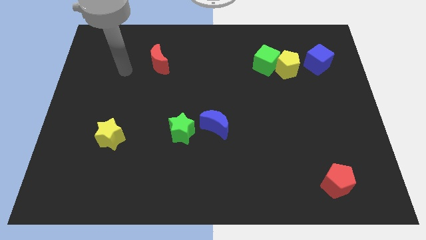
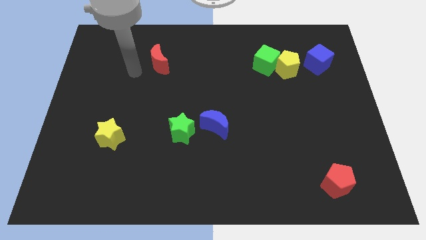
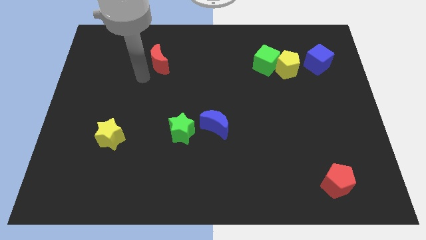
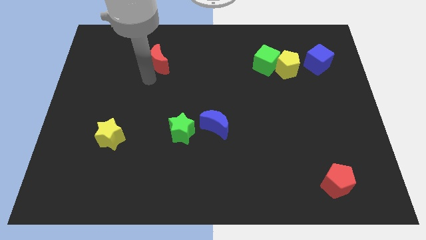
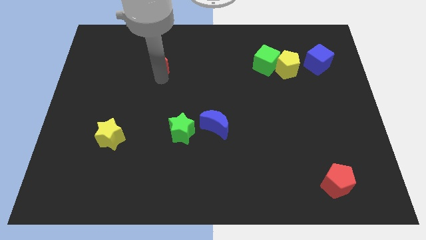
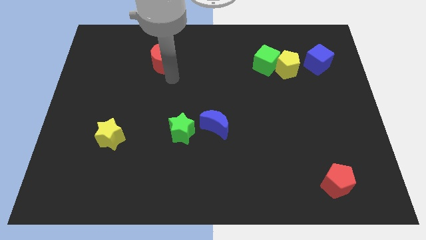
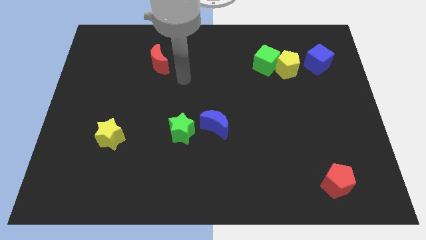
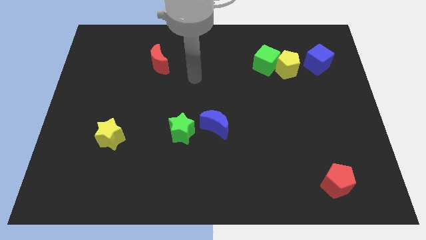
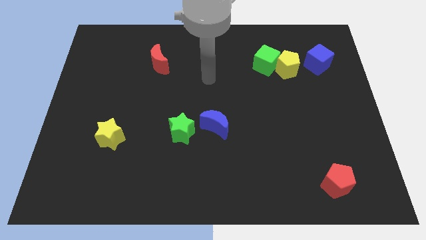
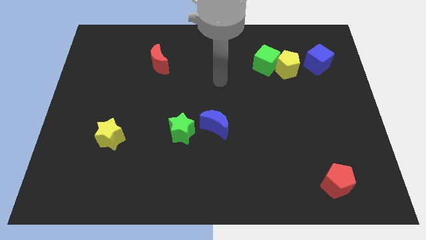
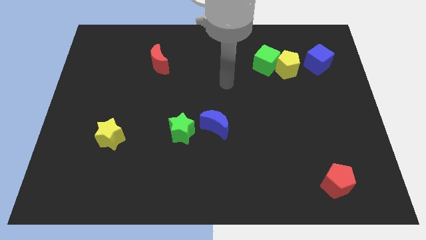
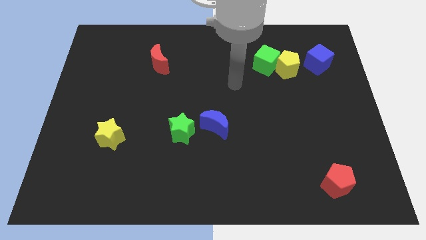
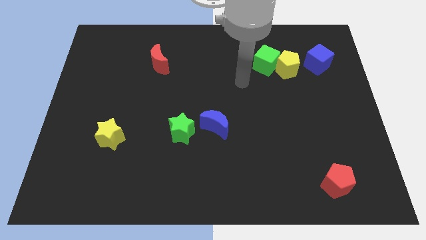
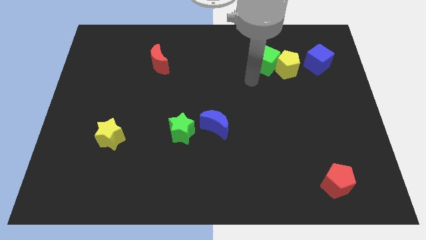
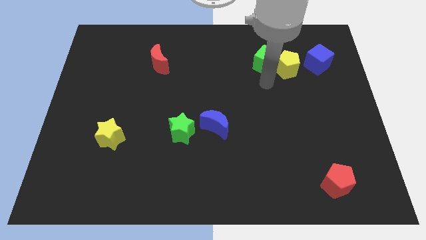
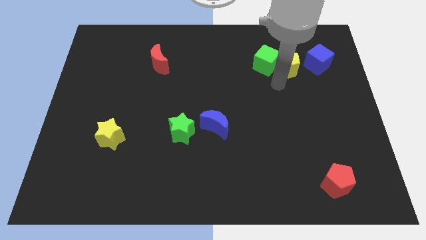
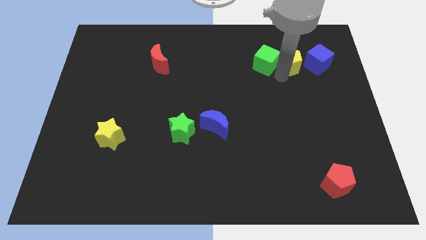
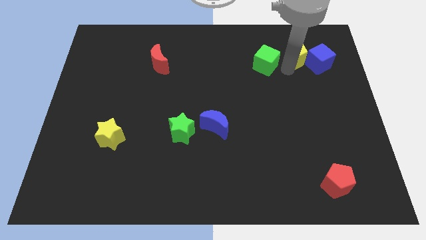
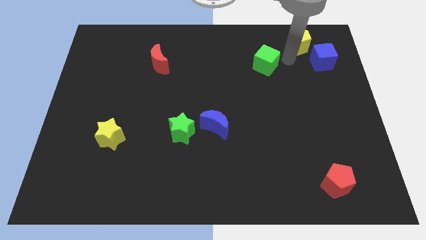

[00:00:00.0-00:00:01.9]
move the green cube away from the yellow pentagon

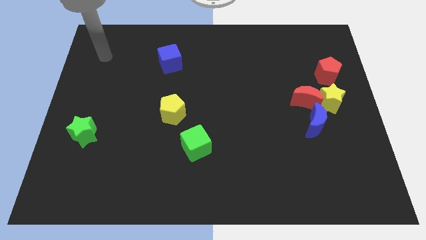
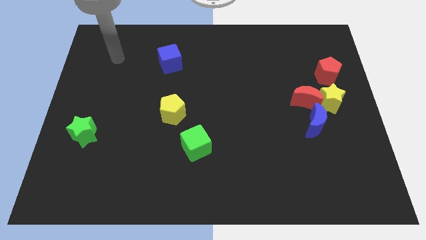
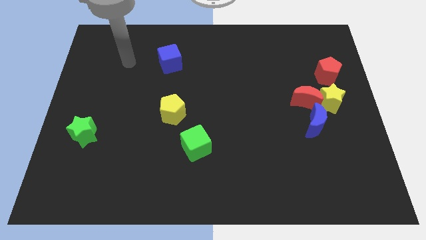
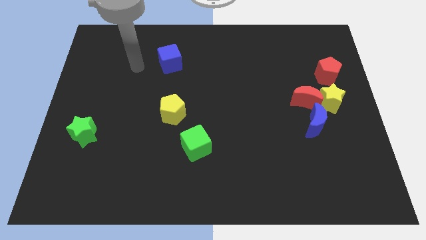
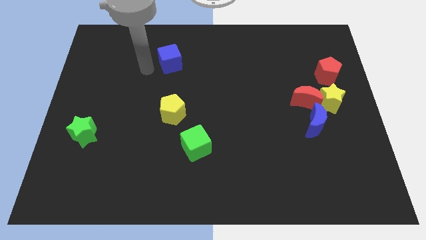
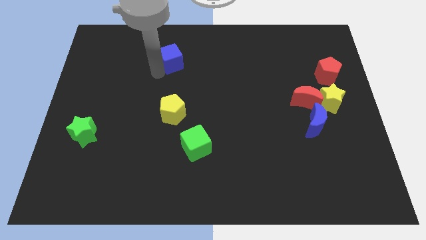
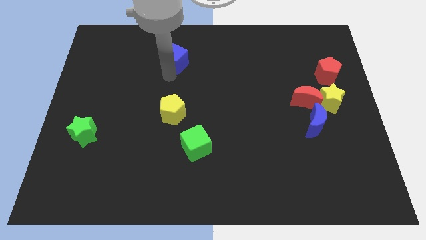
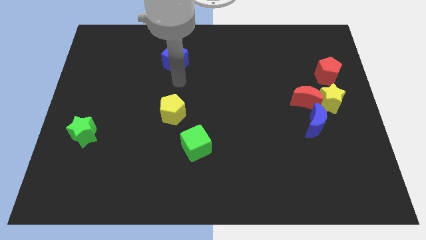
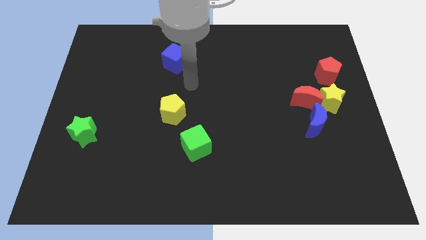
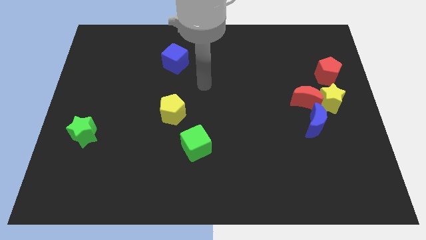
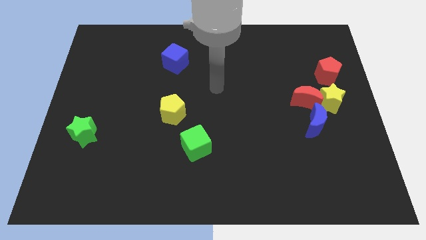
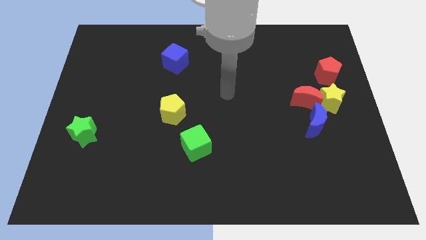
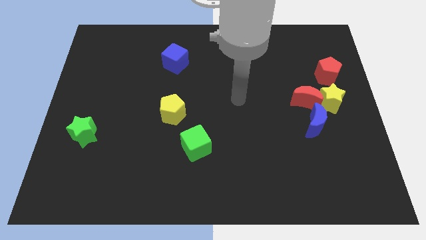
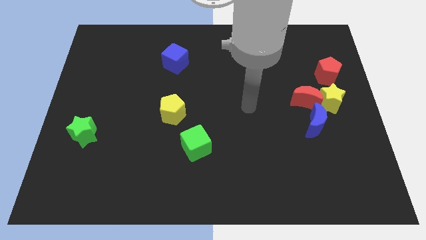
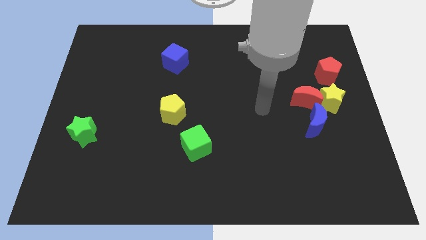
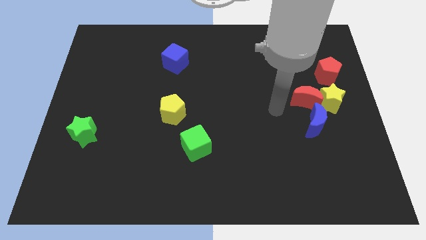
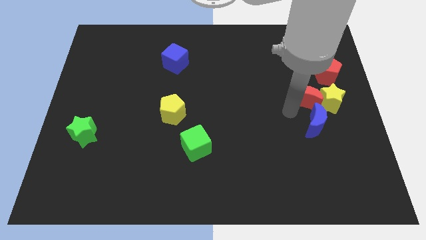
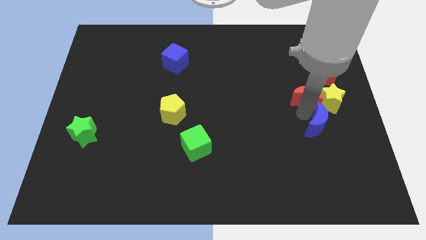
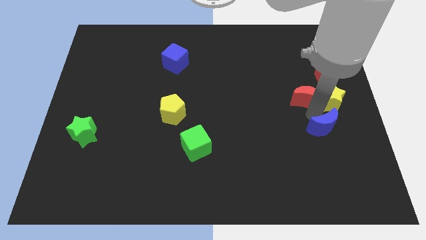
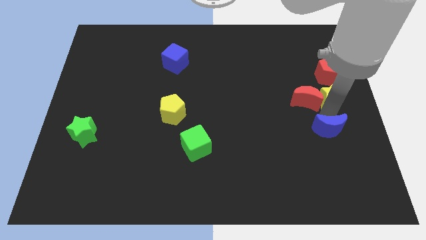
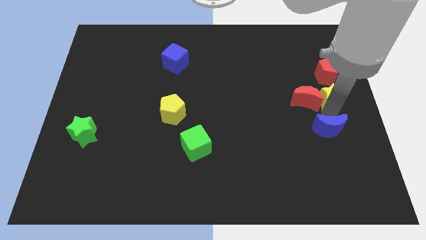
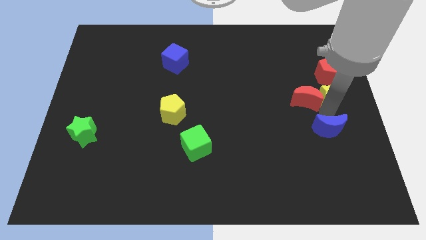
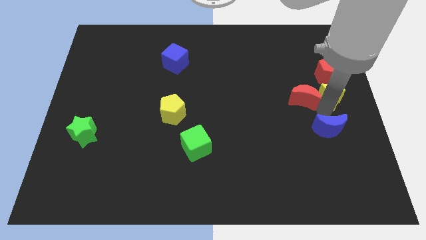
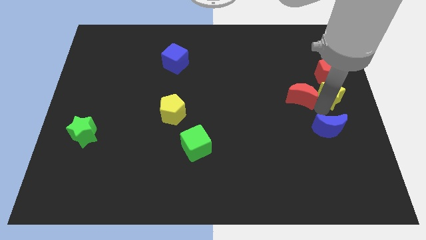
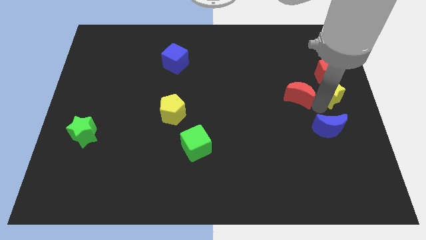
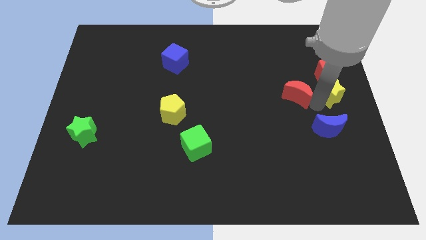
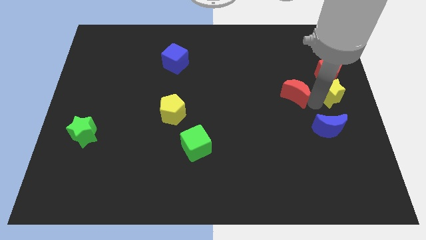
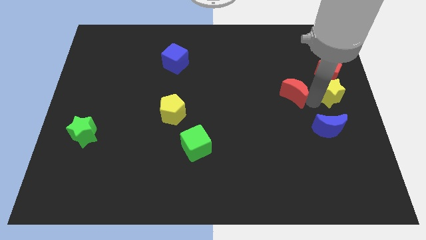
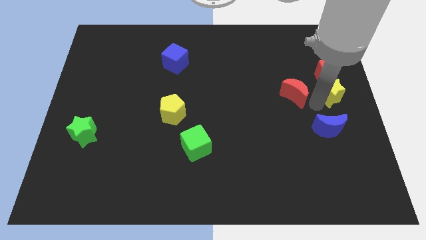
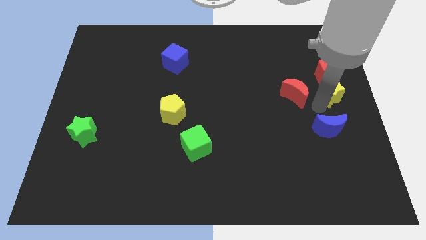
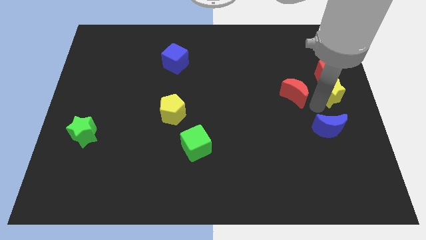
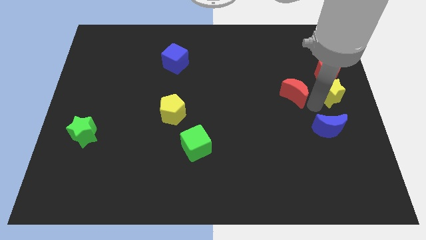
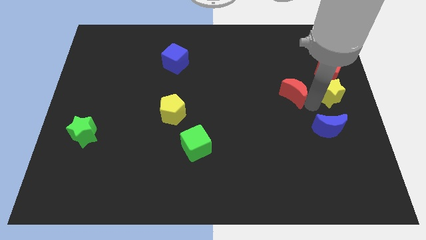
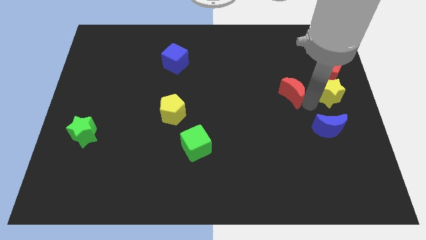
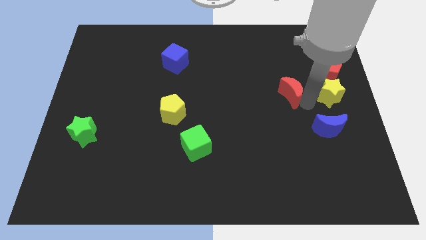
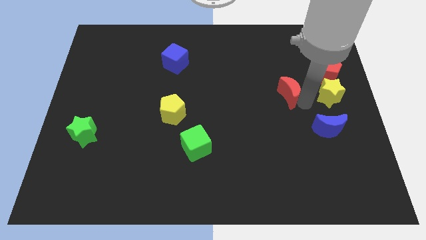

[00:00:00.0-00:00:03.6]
move the red moon away from the yellow star and blue moon

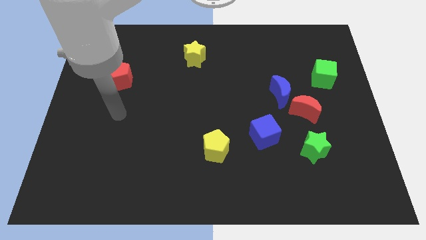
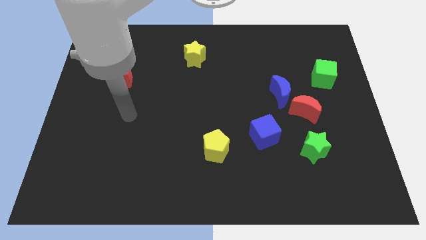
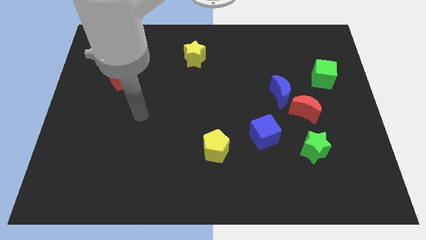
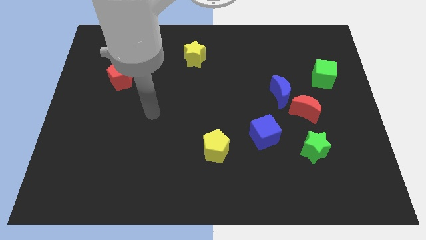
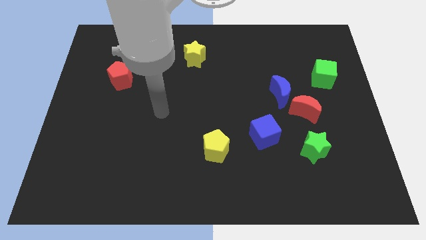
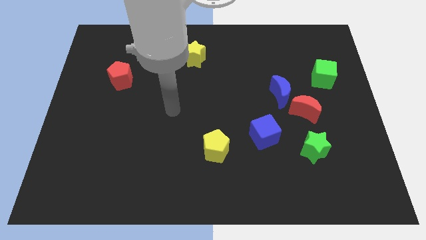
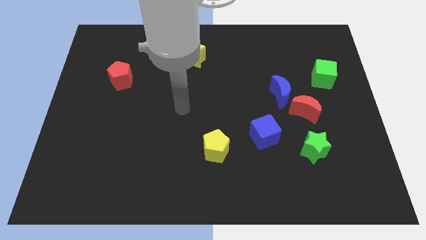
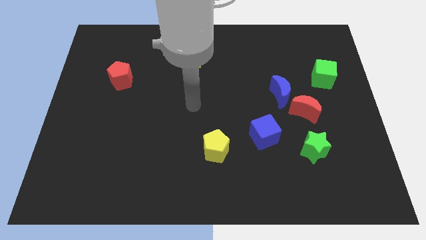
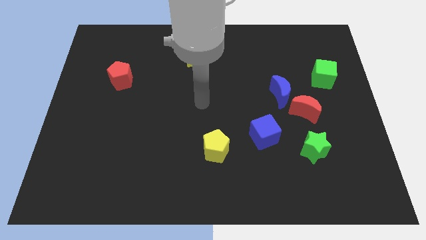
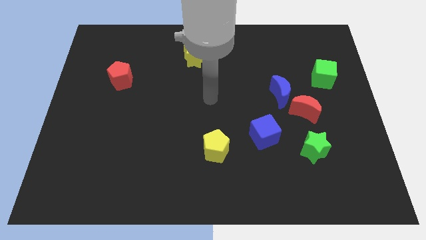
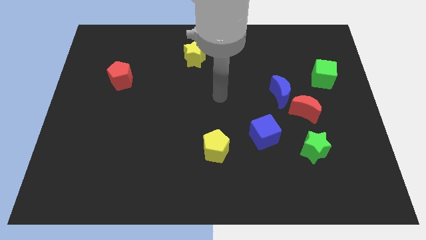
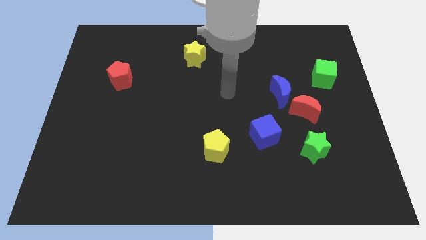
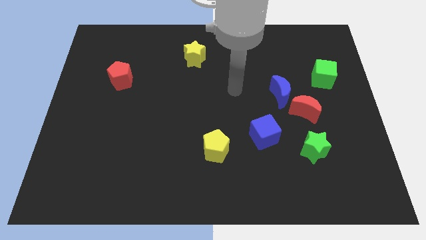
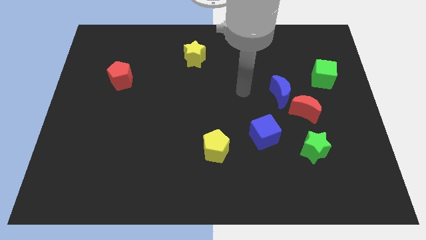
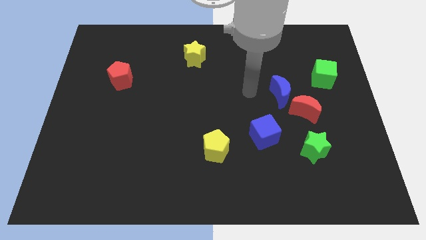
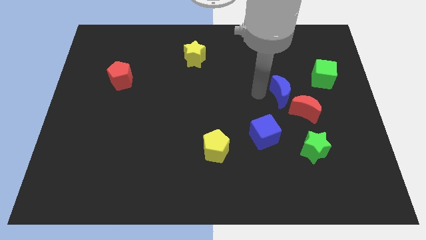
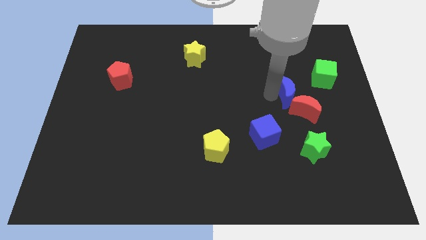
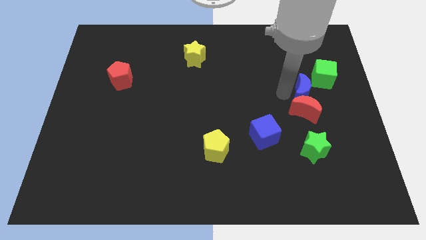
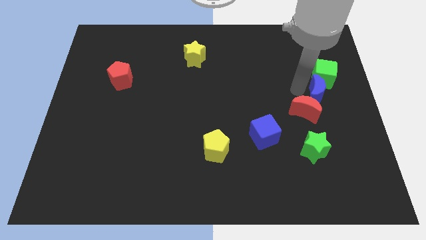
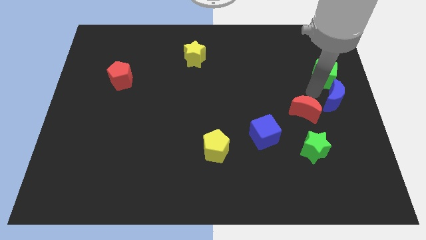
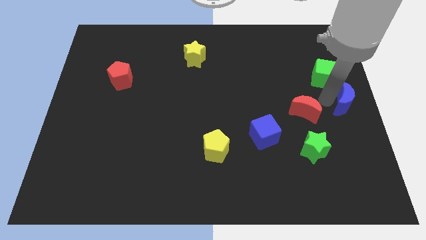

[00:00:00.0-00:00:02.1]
pull the red moon apart from the blue moon

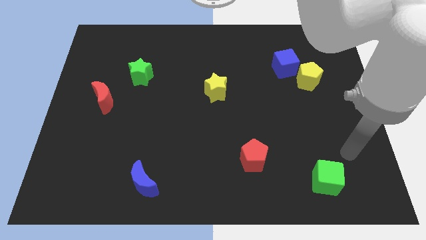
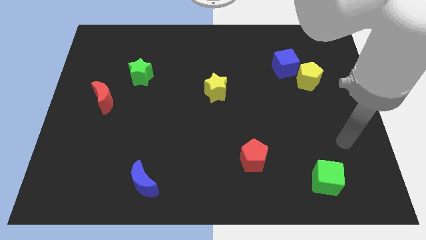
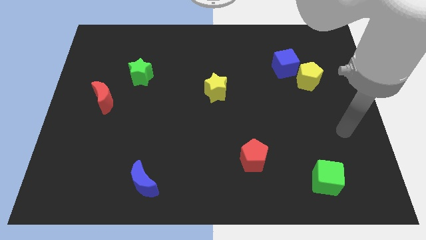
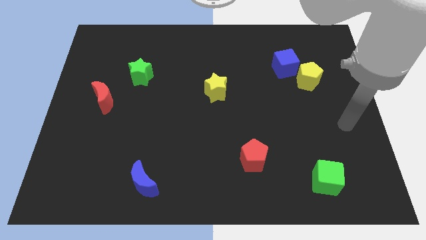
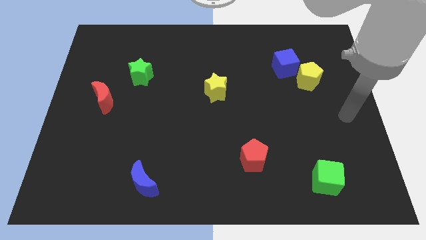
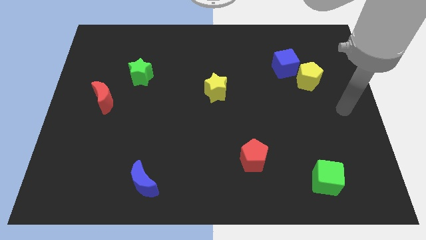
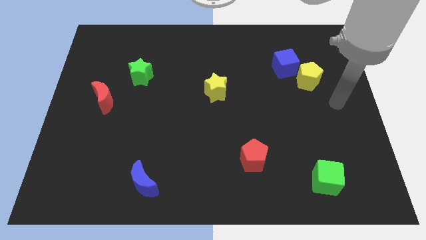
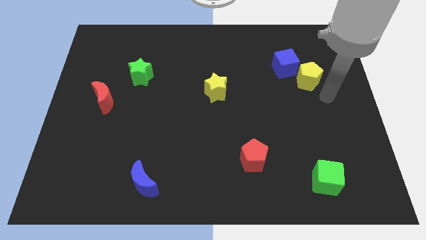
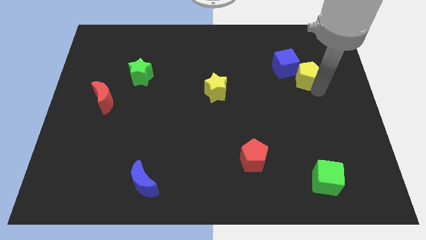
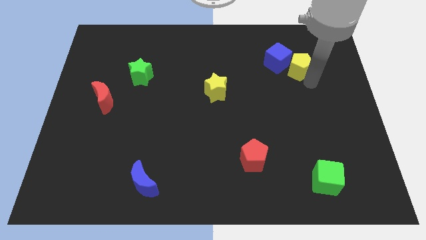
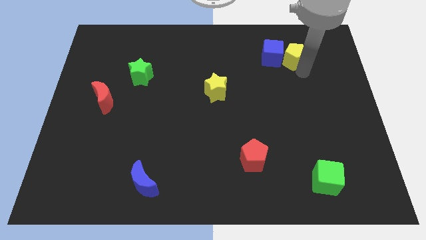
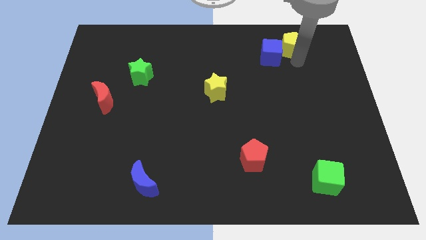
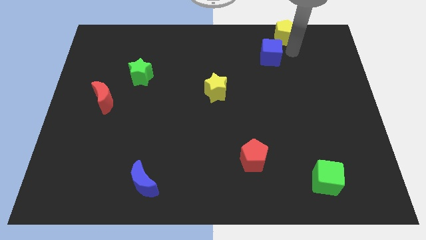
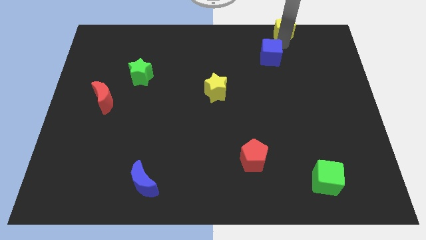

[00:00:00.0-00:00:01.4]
separate the blue cube from the yellow pentagon

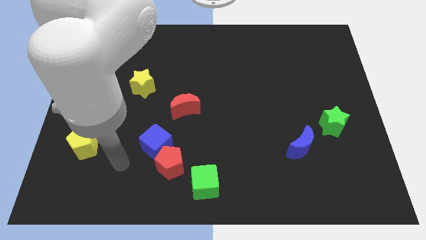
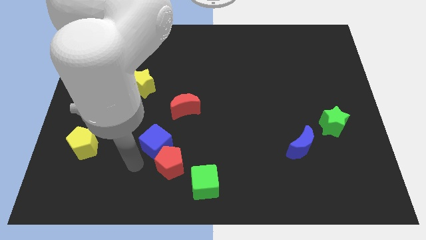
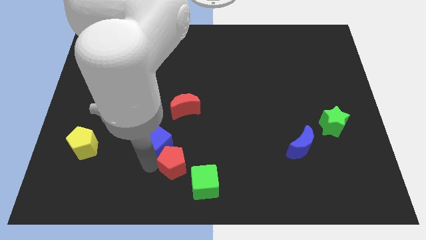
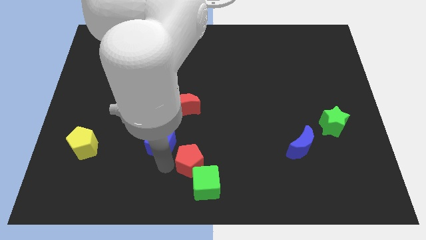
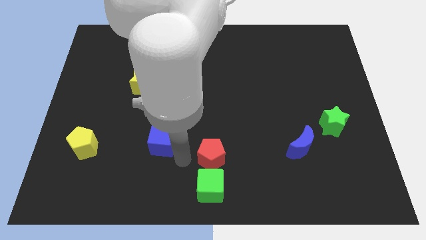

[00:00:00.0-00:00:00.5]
move the blue cube away from the red pentagon
